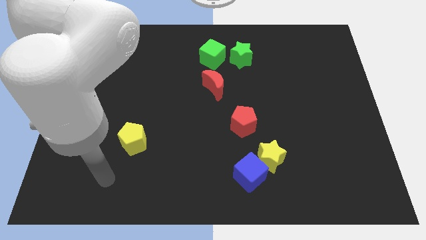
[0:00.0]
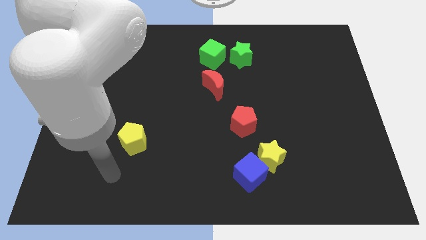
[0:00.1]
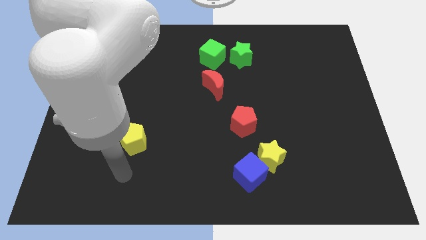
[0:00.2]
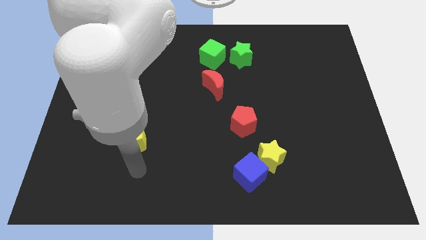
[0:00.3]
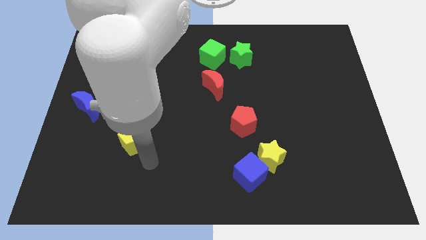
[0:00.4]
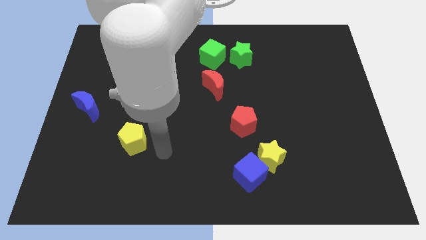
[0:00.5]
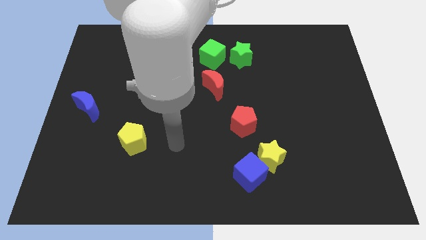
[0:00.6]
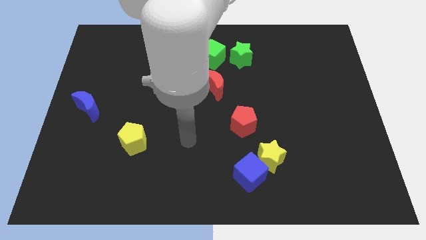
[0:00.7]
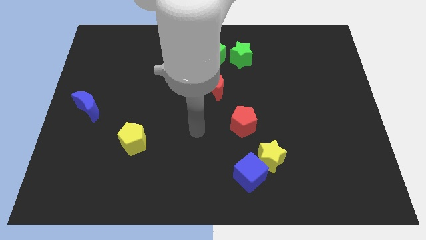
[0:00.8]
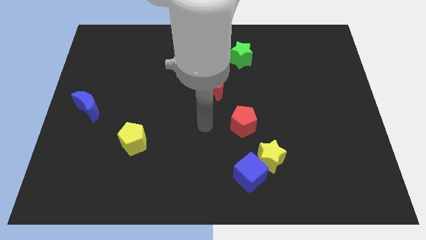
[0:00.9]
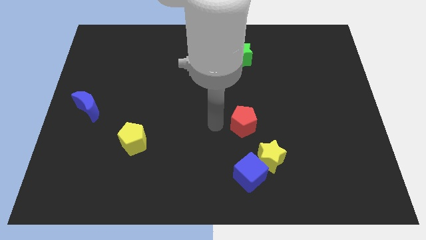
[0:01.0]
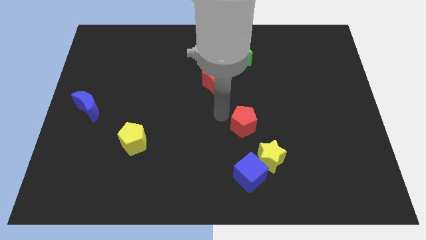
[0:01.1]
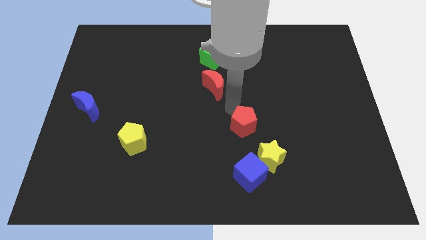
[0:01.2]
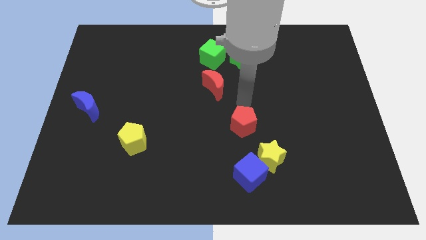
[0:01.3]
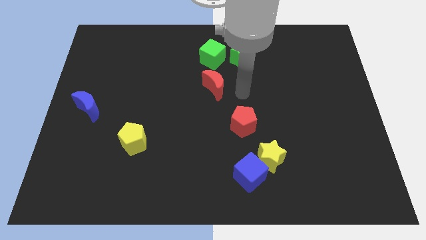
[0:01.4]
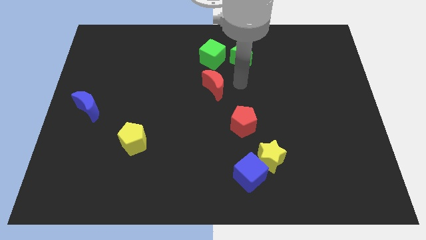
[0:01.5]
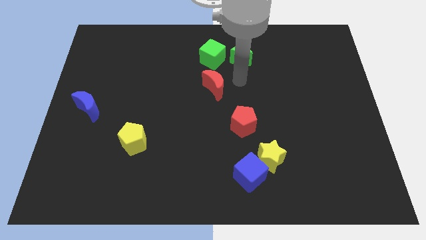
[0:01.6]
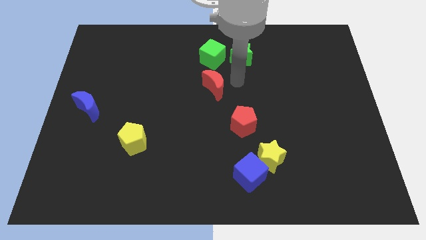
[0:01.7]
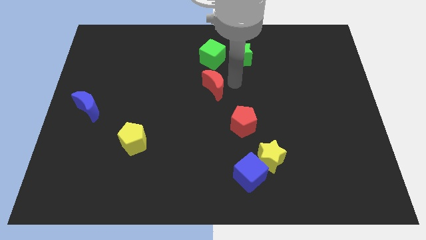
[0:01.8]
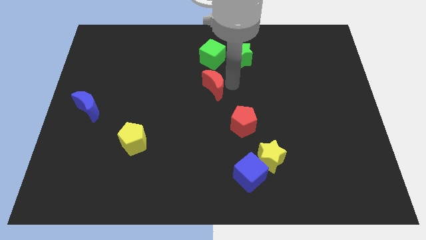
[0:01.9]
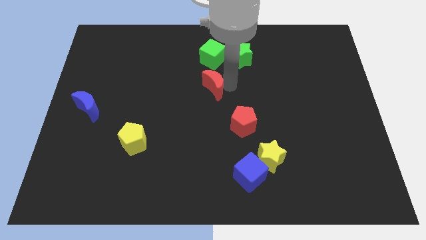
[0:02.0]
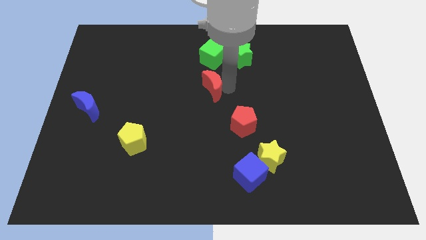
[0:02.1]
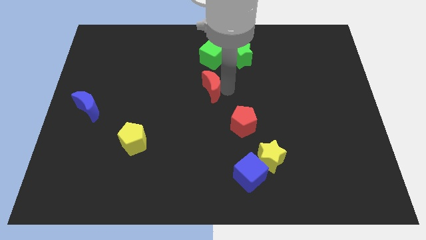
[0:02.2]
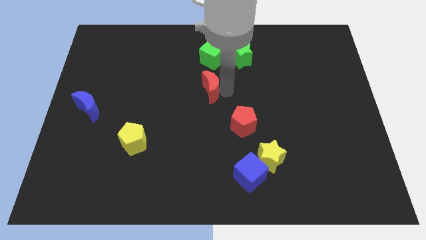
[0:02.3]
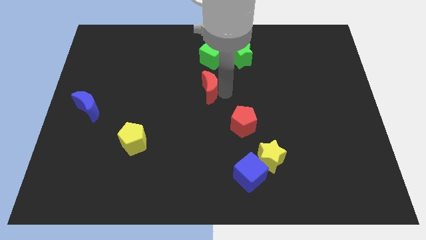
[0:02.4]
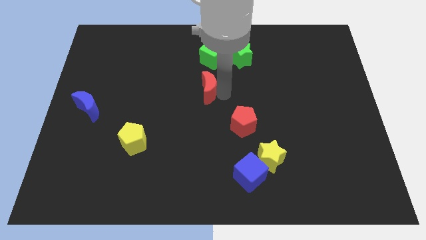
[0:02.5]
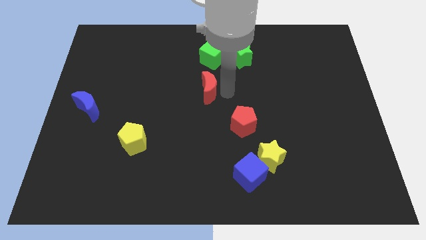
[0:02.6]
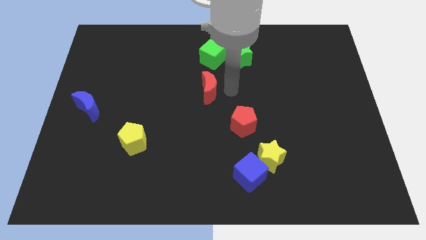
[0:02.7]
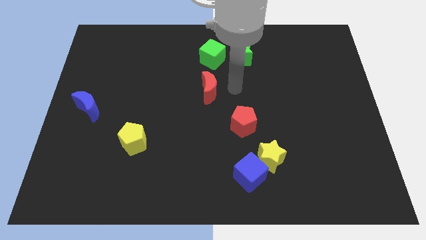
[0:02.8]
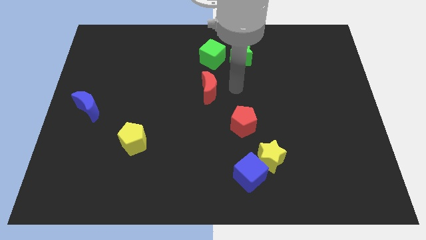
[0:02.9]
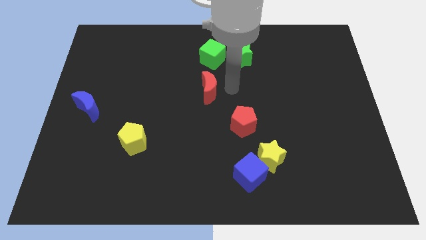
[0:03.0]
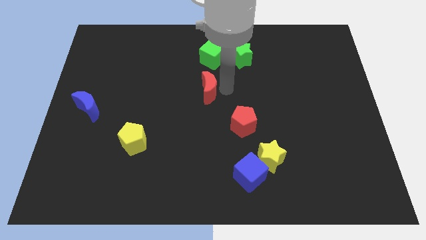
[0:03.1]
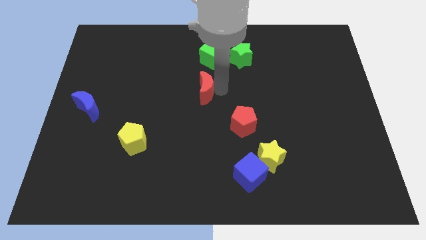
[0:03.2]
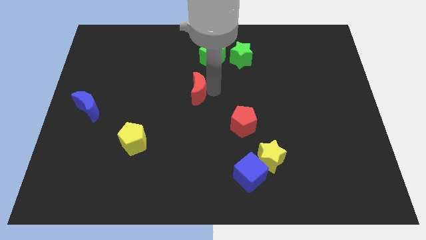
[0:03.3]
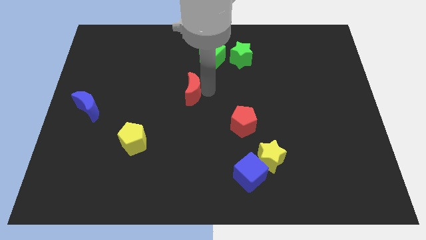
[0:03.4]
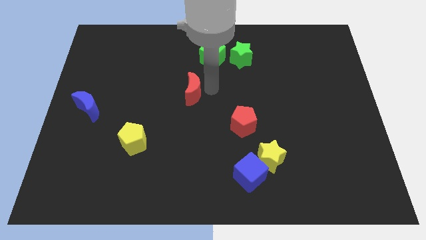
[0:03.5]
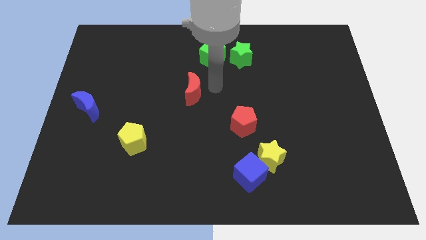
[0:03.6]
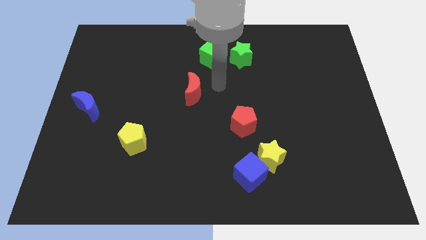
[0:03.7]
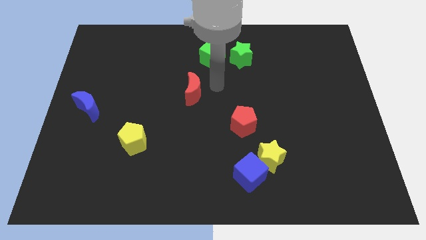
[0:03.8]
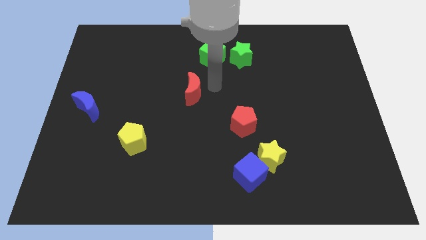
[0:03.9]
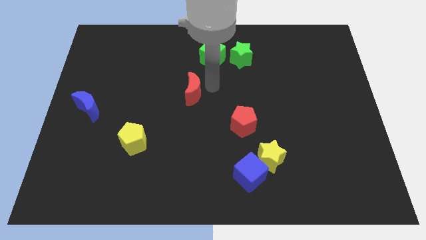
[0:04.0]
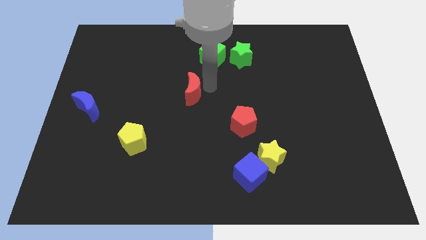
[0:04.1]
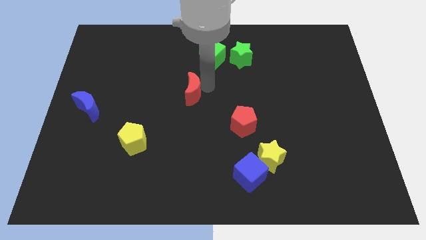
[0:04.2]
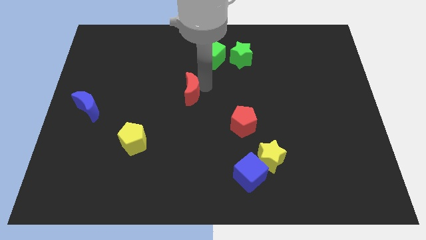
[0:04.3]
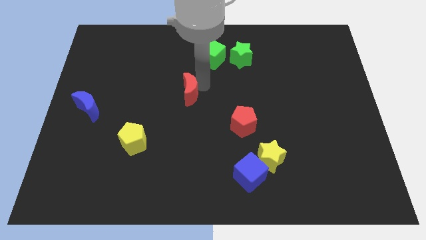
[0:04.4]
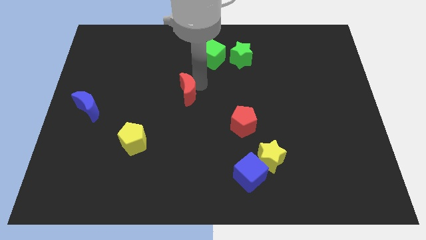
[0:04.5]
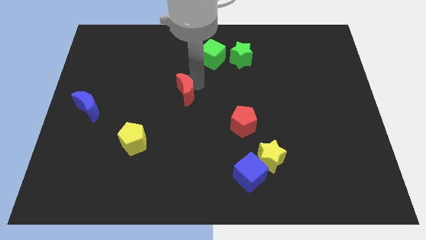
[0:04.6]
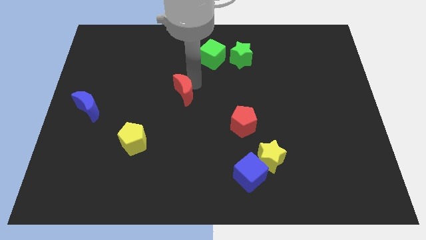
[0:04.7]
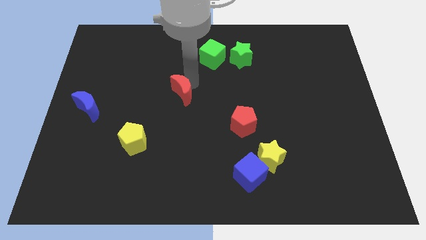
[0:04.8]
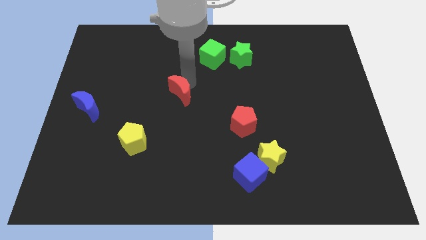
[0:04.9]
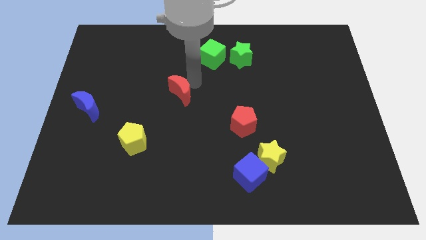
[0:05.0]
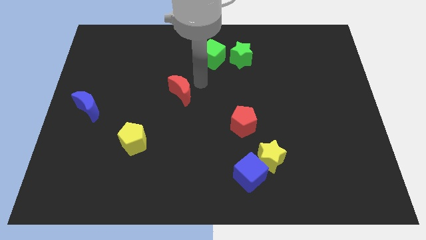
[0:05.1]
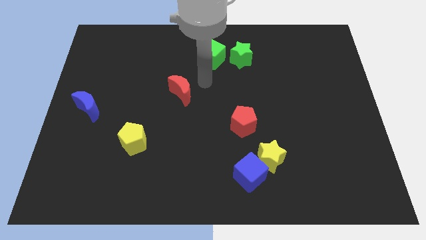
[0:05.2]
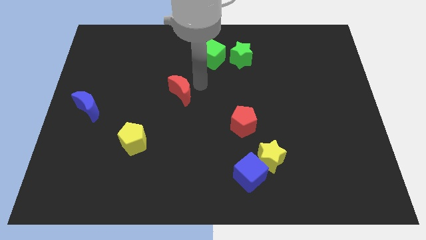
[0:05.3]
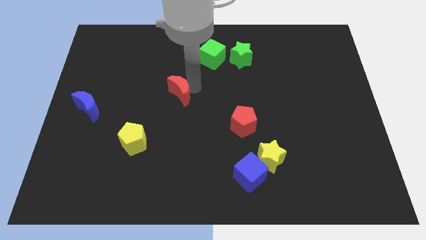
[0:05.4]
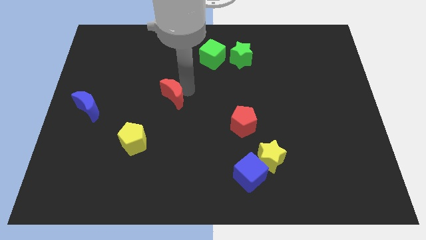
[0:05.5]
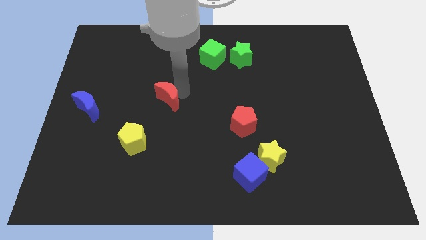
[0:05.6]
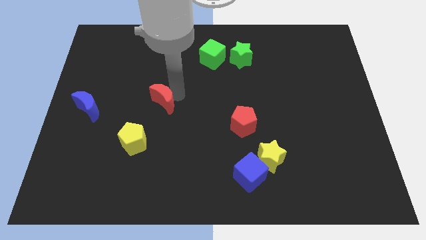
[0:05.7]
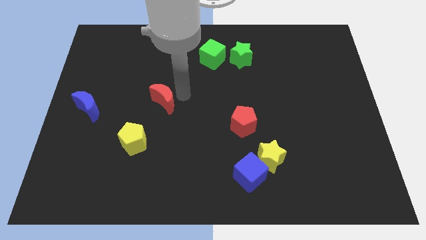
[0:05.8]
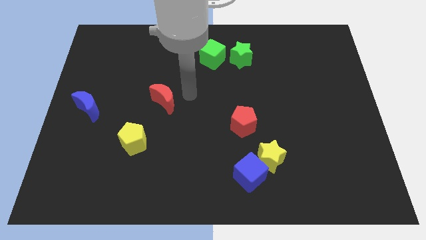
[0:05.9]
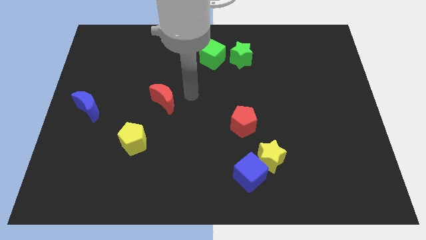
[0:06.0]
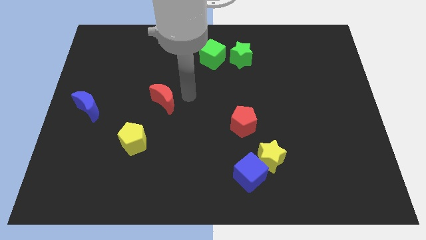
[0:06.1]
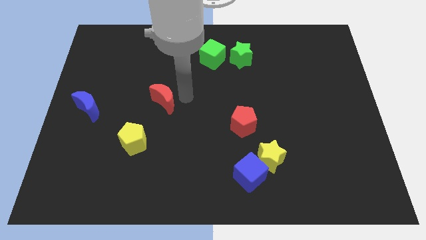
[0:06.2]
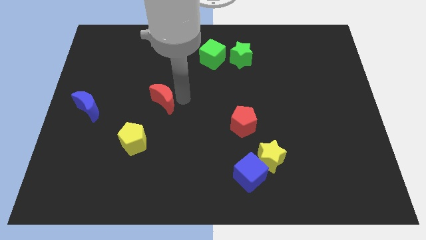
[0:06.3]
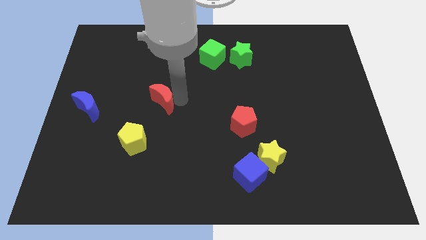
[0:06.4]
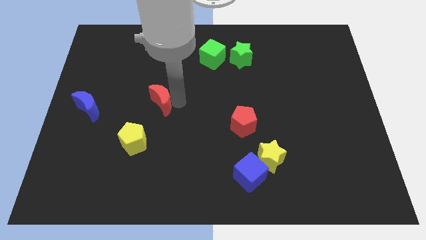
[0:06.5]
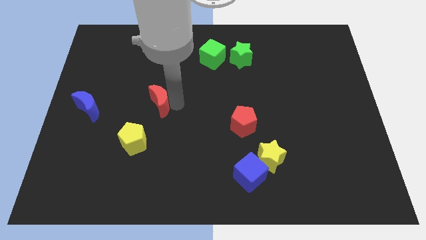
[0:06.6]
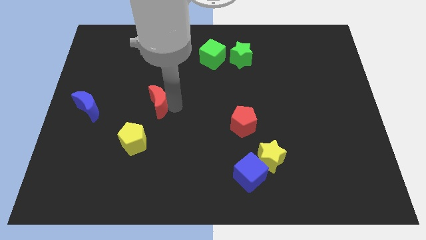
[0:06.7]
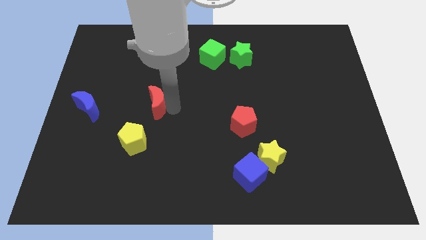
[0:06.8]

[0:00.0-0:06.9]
push the red moon just right of the blue moon

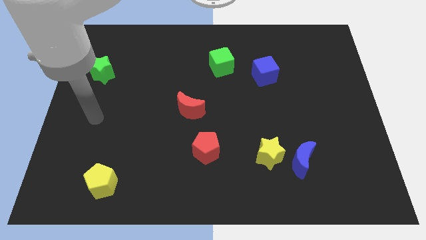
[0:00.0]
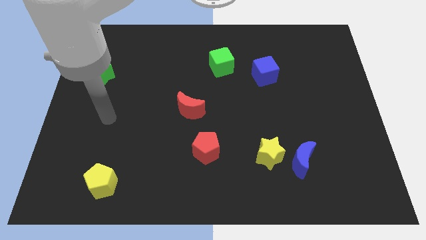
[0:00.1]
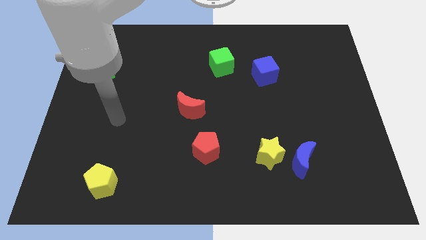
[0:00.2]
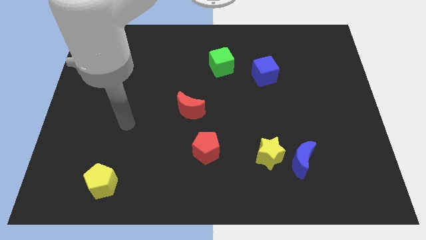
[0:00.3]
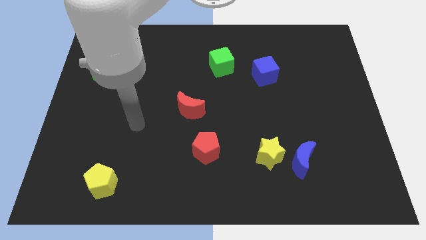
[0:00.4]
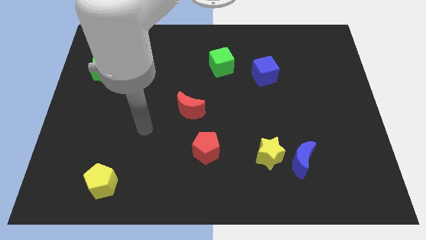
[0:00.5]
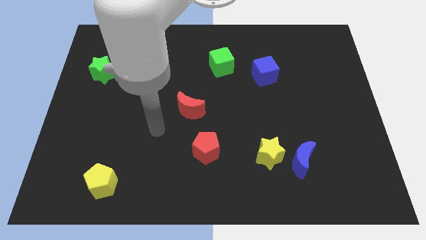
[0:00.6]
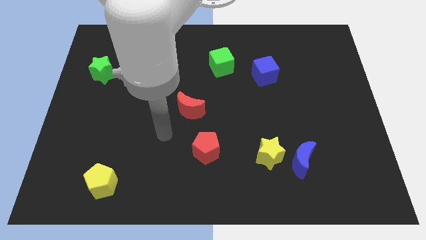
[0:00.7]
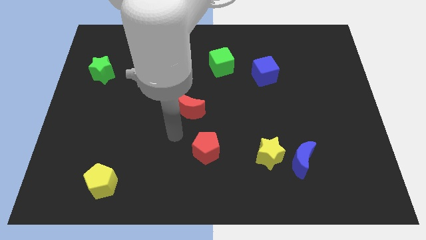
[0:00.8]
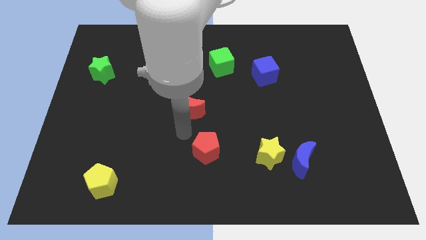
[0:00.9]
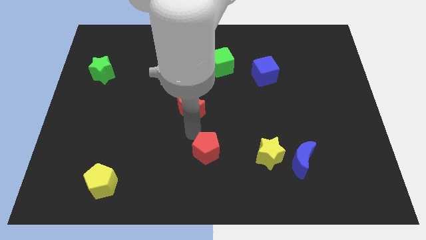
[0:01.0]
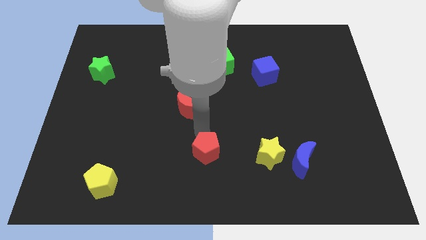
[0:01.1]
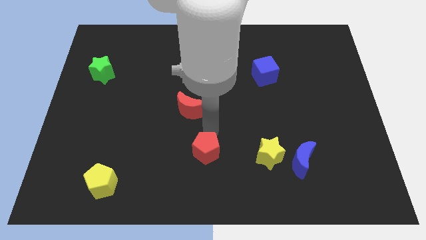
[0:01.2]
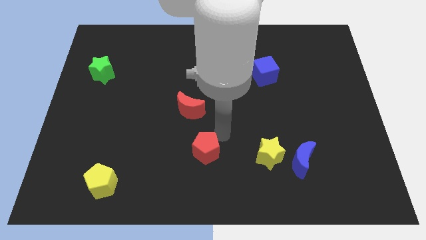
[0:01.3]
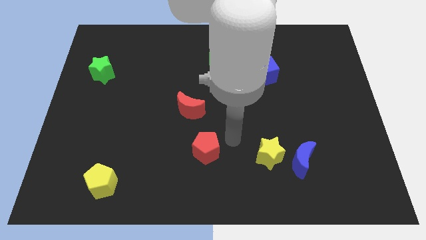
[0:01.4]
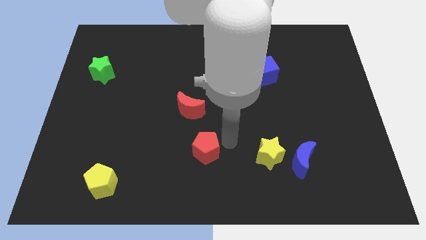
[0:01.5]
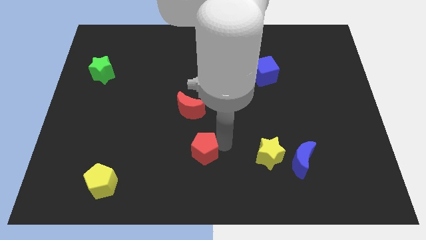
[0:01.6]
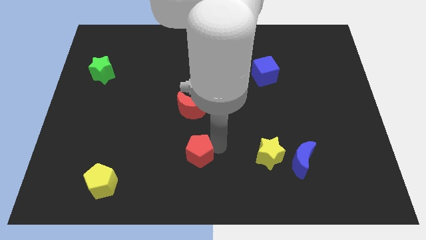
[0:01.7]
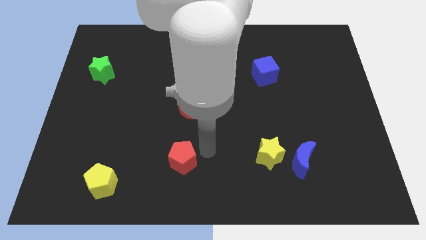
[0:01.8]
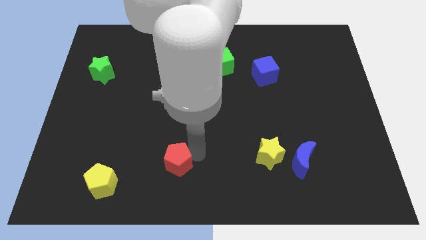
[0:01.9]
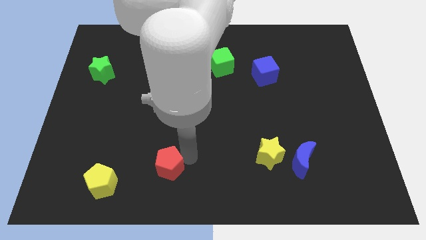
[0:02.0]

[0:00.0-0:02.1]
slide the red pentagon just right of the yellow pentagon
